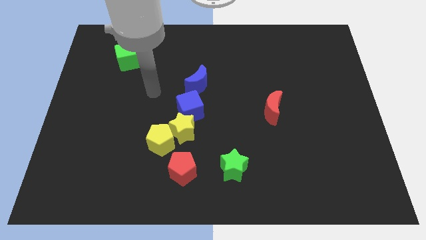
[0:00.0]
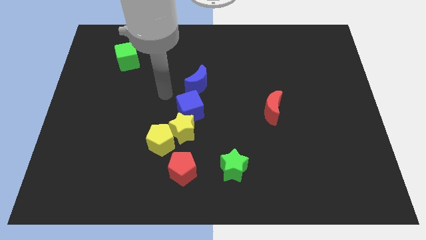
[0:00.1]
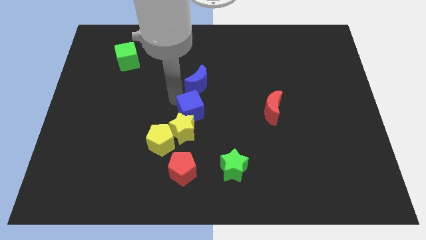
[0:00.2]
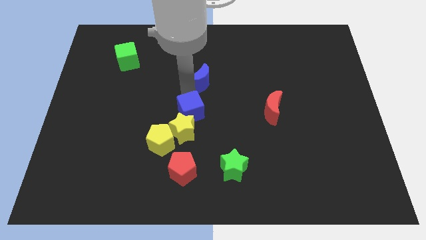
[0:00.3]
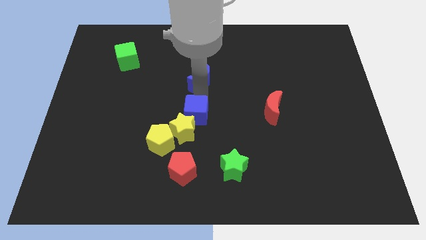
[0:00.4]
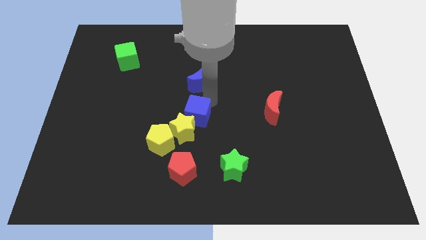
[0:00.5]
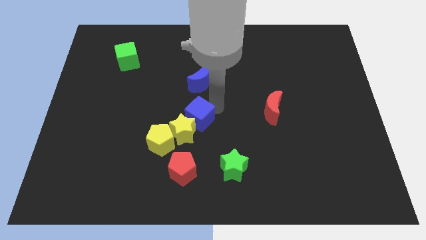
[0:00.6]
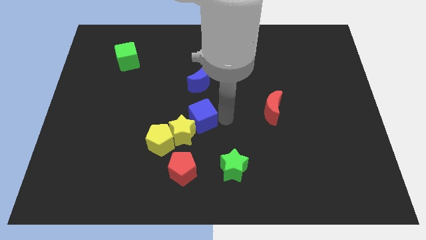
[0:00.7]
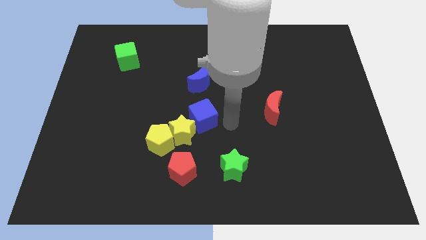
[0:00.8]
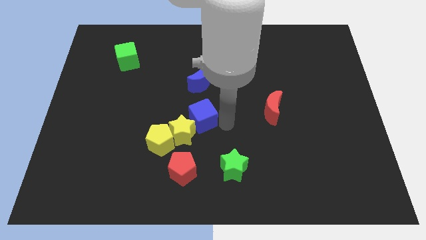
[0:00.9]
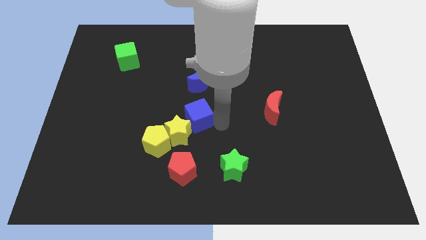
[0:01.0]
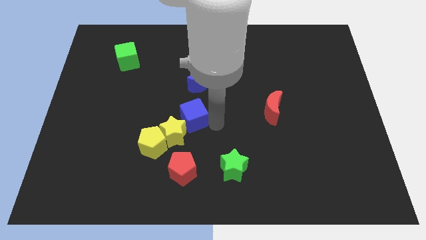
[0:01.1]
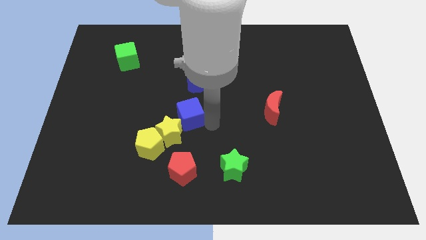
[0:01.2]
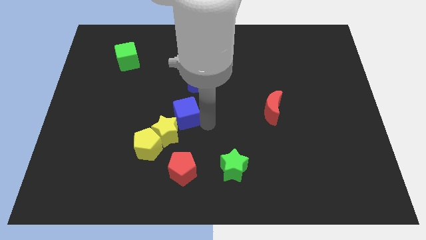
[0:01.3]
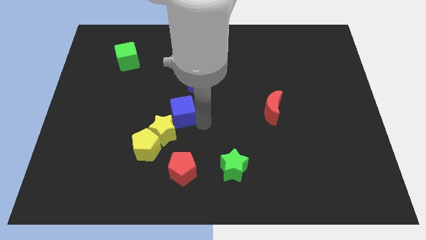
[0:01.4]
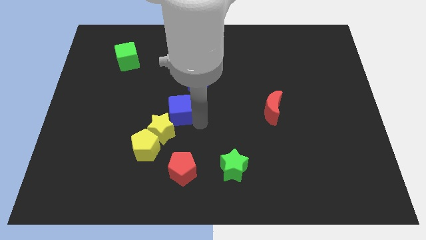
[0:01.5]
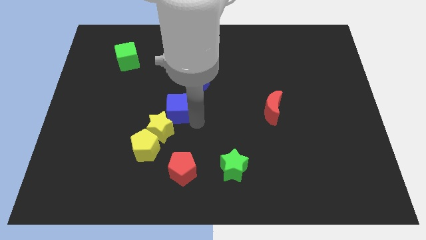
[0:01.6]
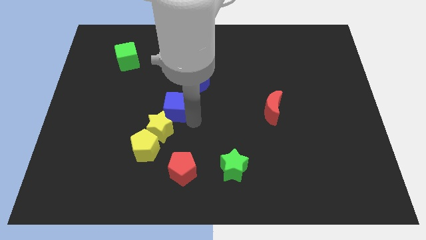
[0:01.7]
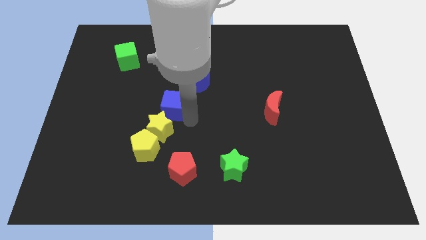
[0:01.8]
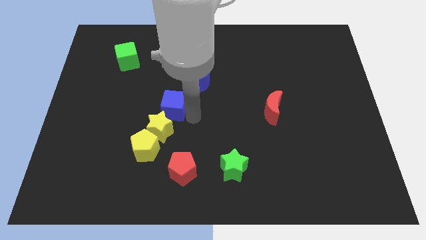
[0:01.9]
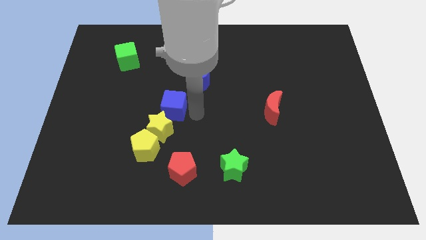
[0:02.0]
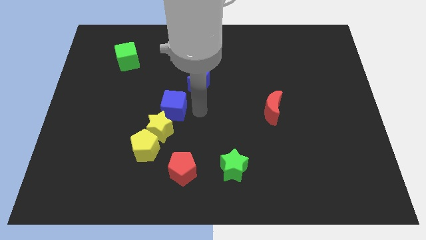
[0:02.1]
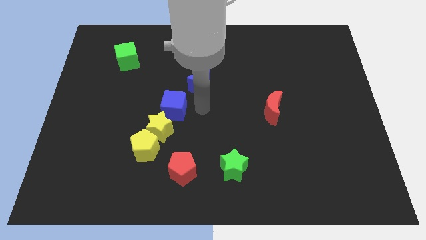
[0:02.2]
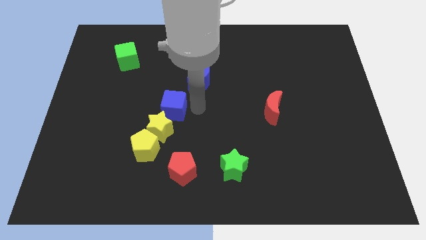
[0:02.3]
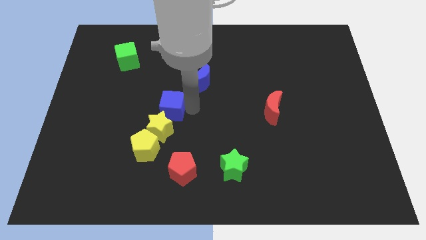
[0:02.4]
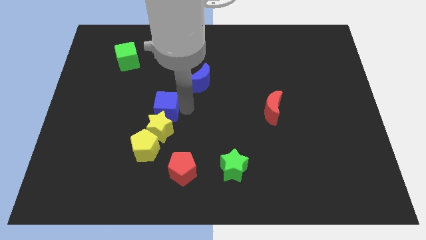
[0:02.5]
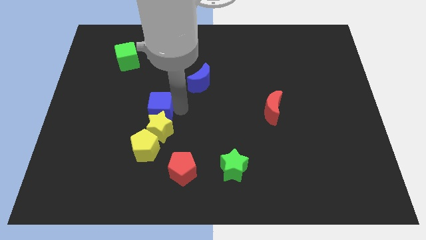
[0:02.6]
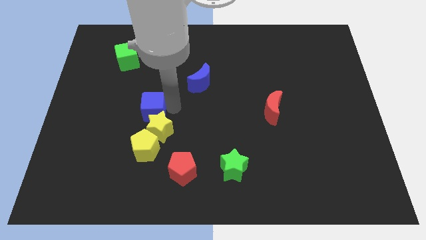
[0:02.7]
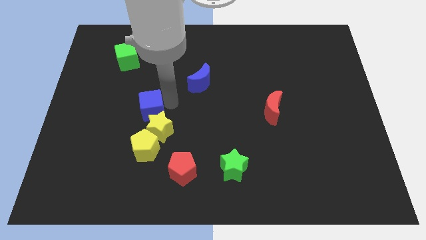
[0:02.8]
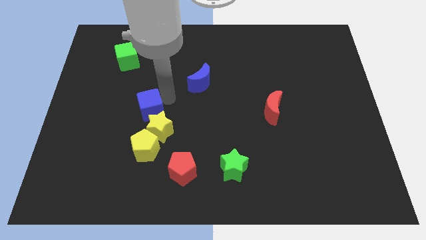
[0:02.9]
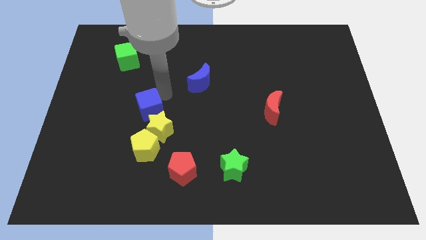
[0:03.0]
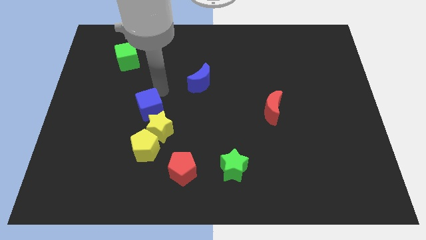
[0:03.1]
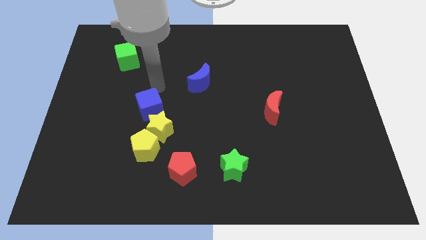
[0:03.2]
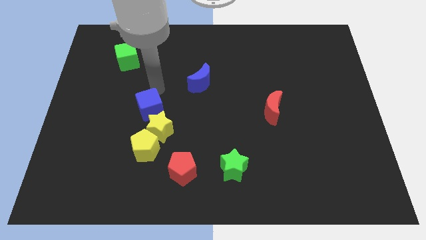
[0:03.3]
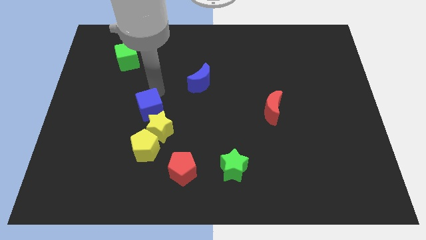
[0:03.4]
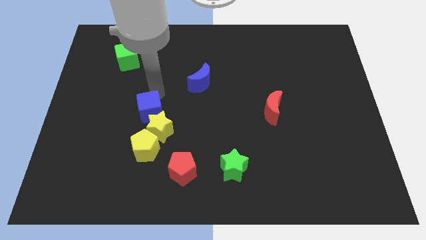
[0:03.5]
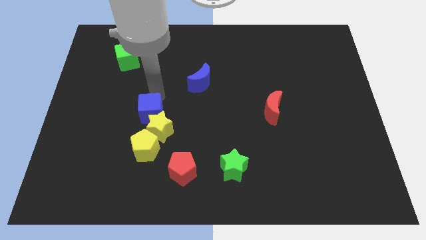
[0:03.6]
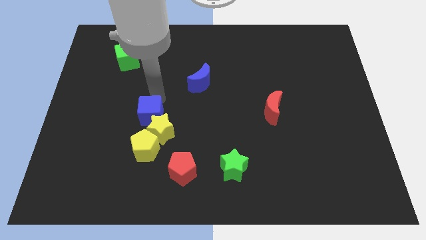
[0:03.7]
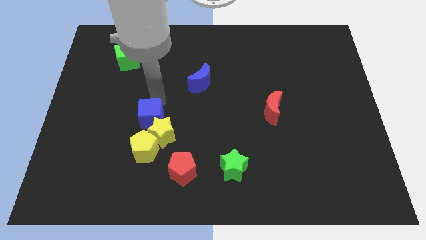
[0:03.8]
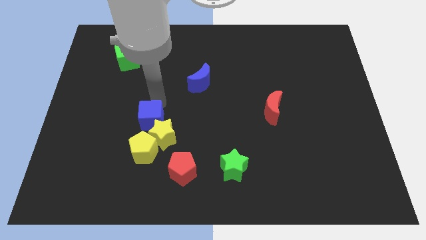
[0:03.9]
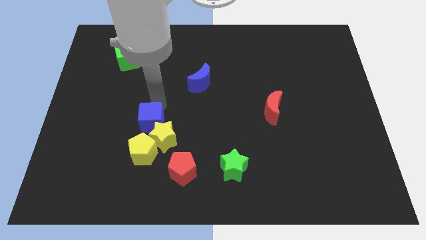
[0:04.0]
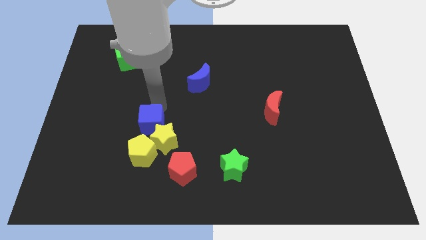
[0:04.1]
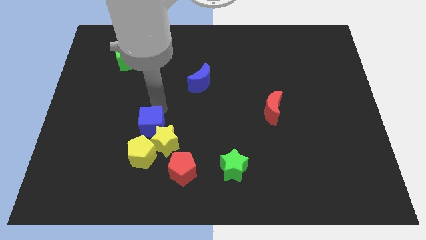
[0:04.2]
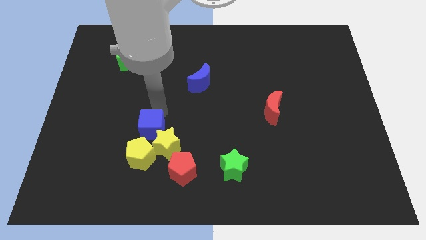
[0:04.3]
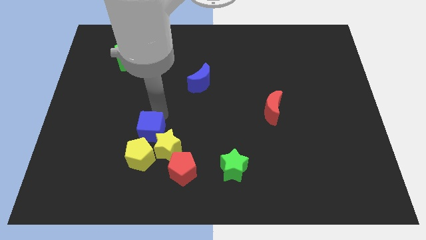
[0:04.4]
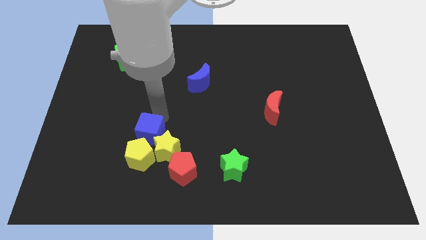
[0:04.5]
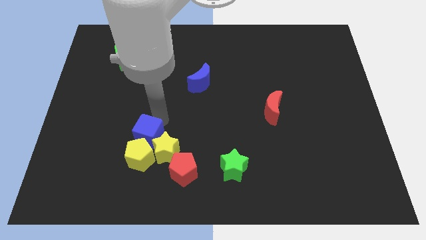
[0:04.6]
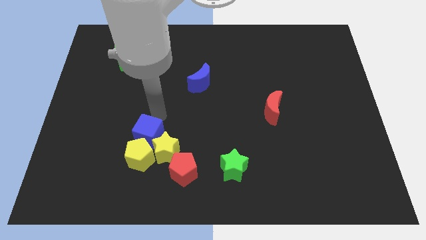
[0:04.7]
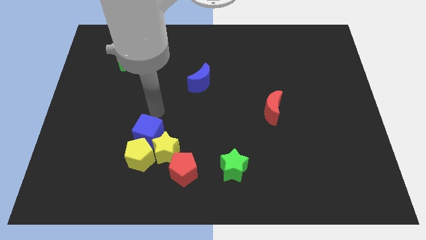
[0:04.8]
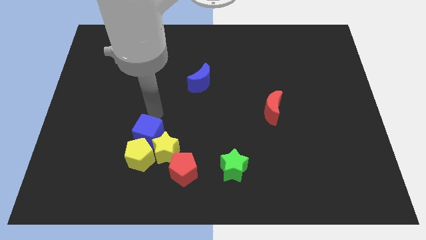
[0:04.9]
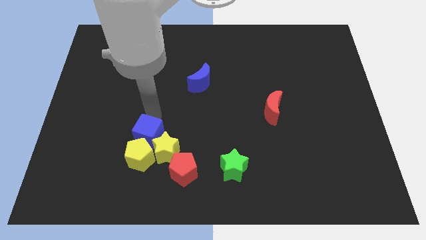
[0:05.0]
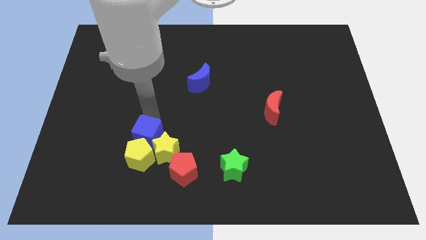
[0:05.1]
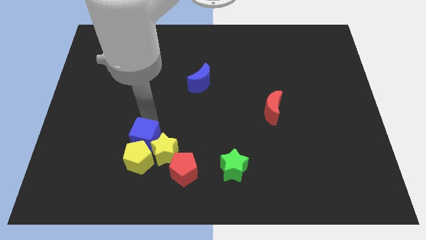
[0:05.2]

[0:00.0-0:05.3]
pull the blue cube apart from the yellow star and blue moon

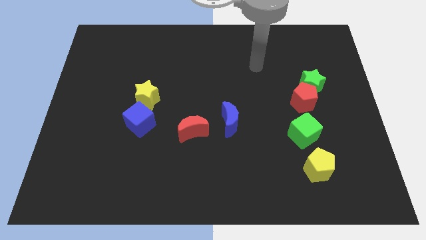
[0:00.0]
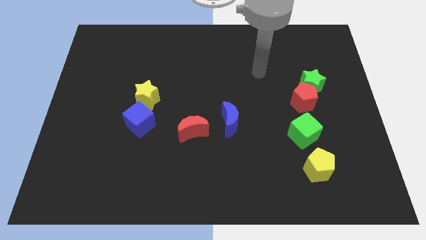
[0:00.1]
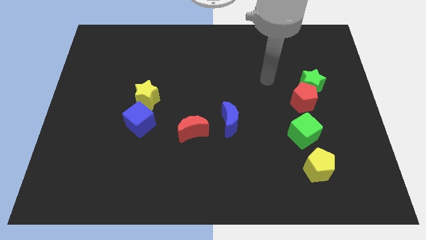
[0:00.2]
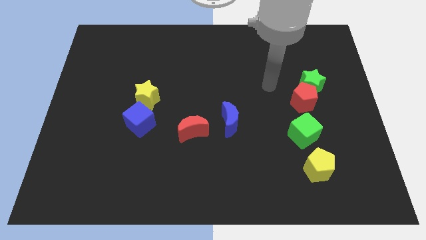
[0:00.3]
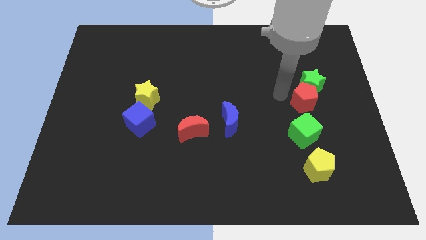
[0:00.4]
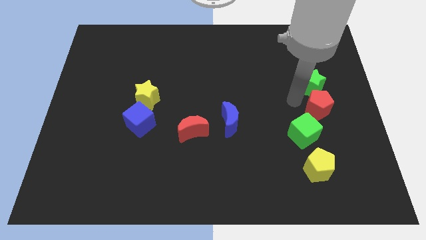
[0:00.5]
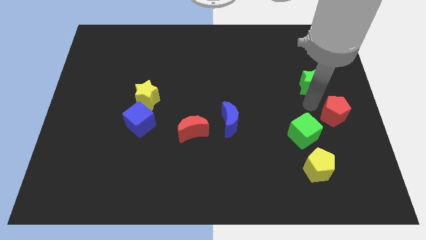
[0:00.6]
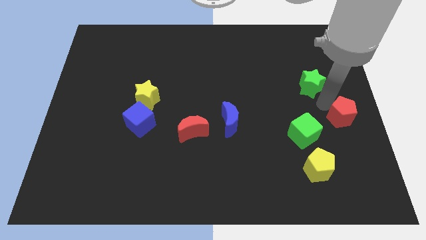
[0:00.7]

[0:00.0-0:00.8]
separate the green star from the red pentagon

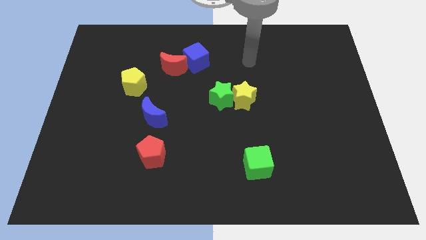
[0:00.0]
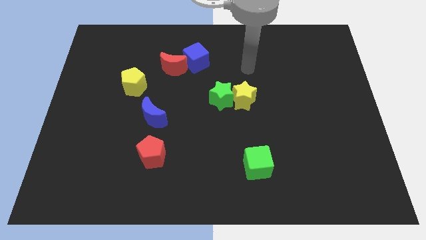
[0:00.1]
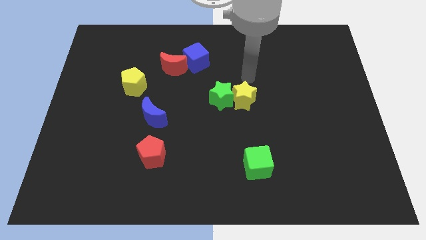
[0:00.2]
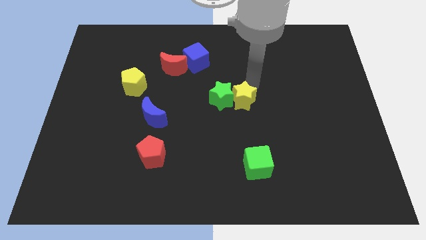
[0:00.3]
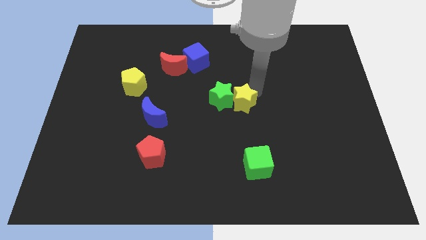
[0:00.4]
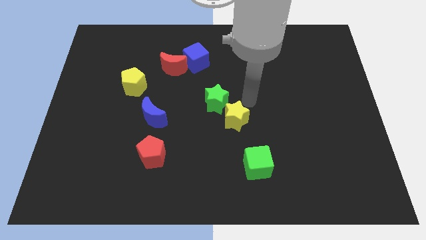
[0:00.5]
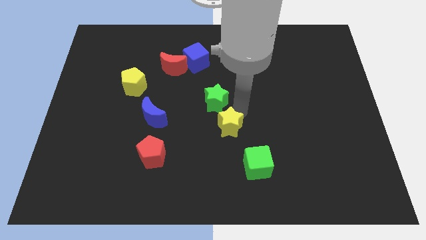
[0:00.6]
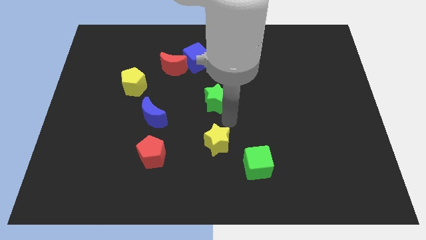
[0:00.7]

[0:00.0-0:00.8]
pull the green star apart from the yellow star

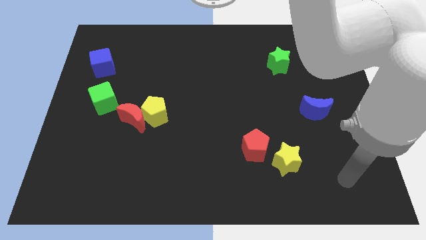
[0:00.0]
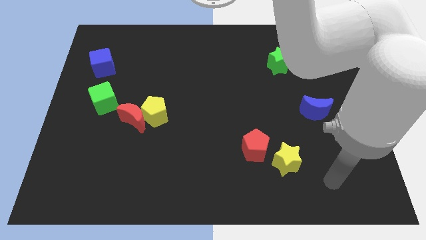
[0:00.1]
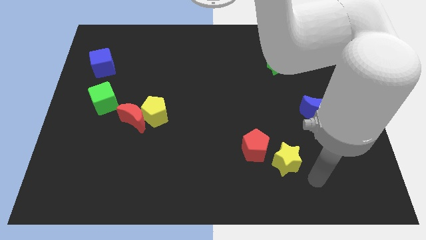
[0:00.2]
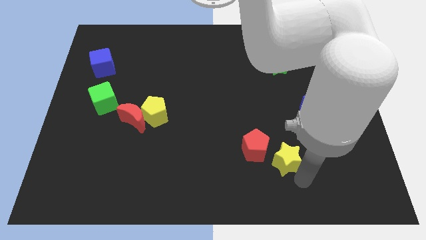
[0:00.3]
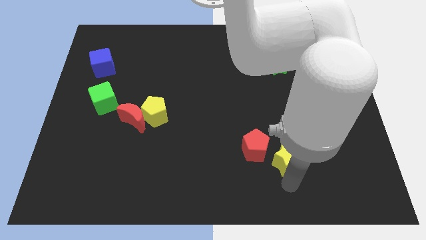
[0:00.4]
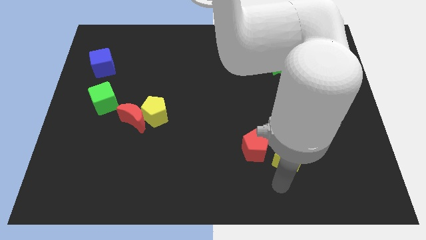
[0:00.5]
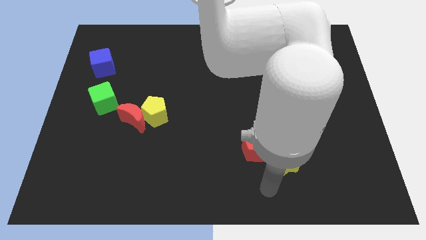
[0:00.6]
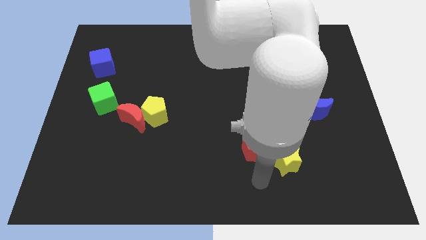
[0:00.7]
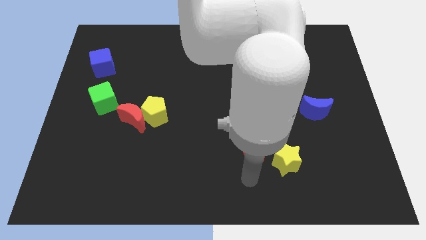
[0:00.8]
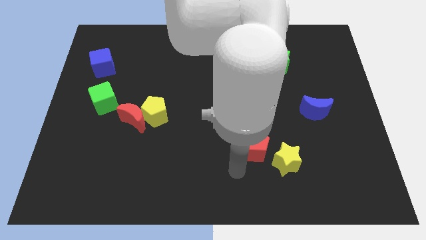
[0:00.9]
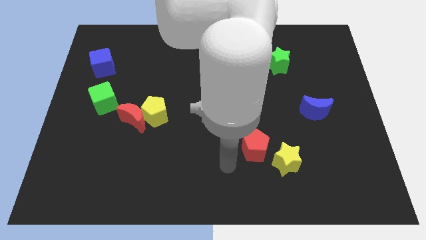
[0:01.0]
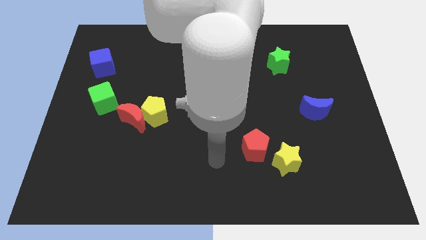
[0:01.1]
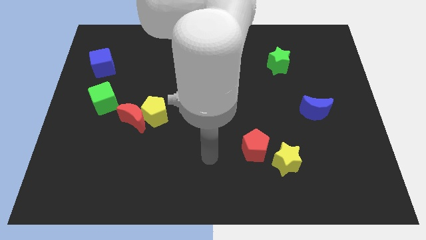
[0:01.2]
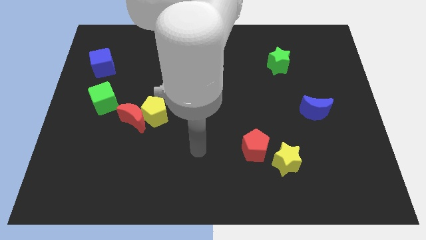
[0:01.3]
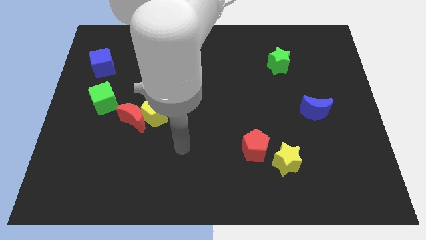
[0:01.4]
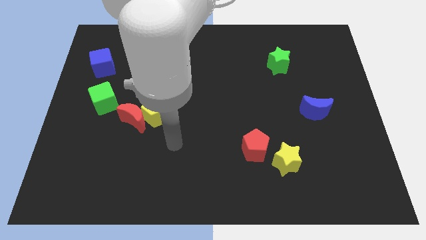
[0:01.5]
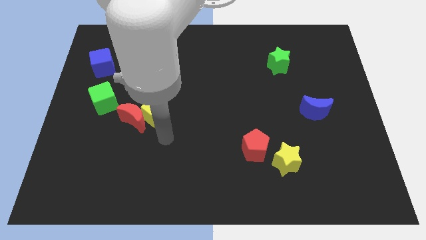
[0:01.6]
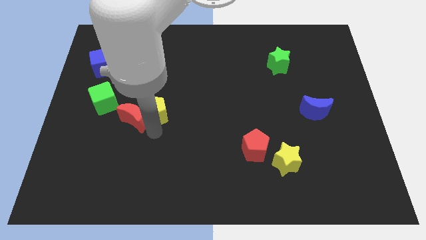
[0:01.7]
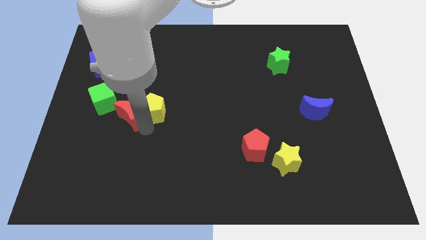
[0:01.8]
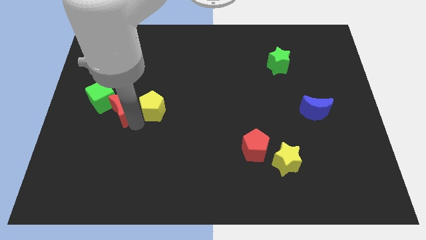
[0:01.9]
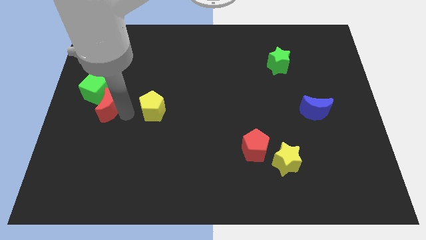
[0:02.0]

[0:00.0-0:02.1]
separate the yellow pentagon from the red moon

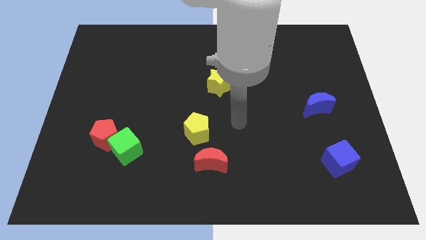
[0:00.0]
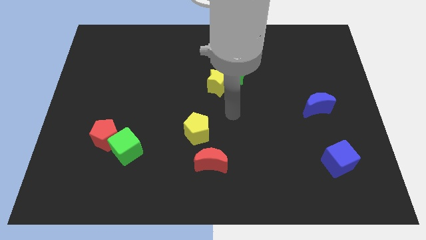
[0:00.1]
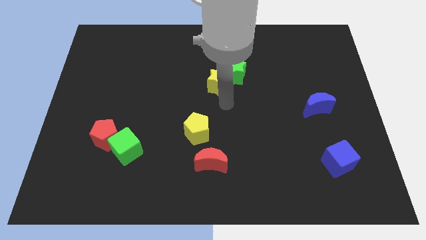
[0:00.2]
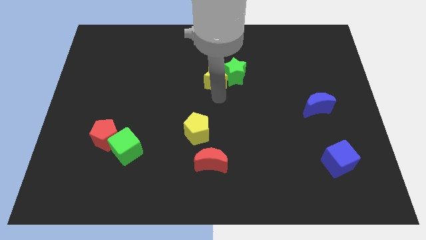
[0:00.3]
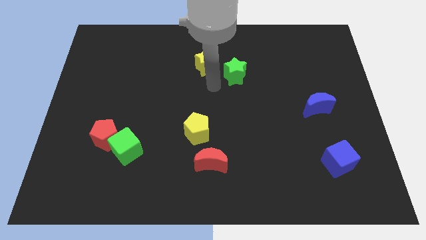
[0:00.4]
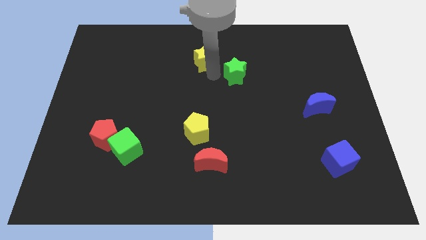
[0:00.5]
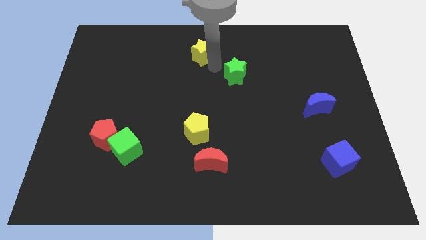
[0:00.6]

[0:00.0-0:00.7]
separate the green star from the yellow star
